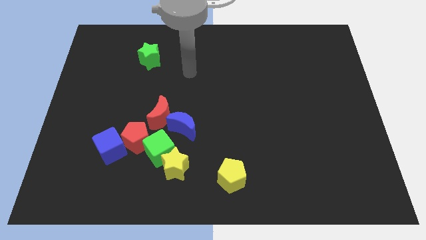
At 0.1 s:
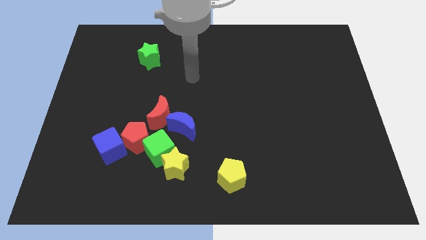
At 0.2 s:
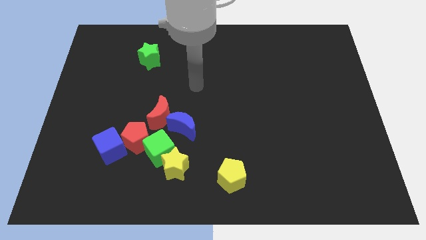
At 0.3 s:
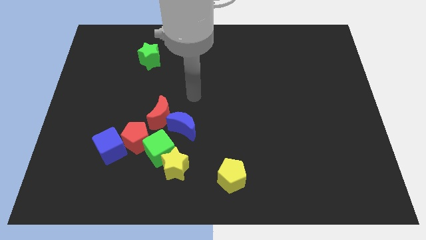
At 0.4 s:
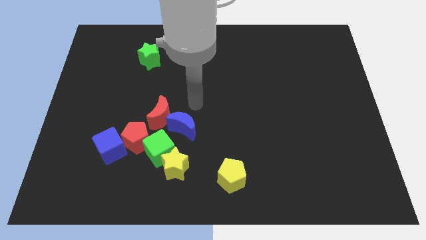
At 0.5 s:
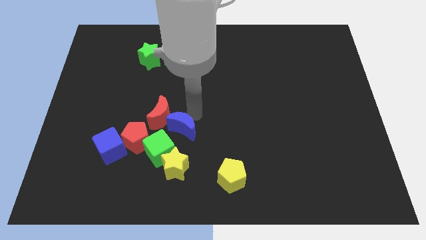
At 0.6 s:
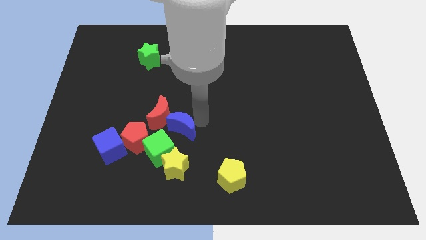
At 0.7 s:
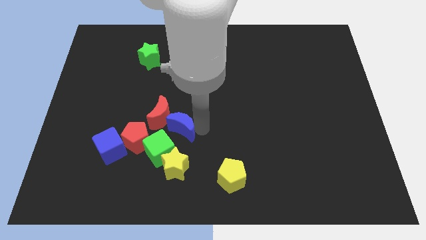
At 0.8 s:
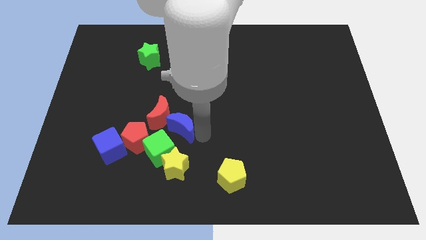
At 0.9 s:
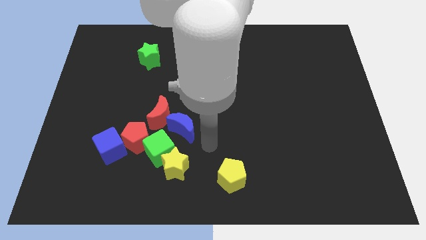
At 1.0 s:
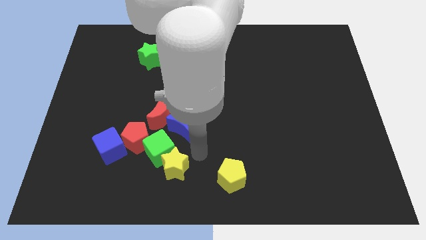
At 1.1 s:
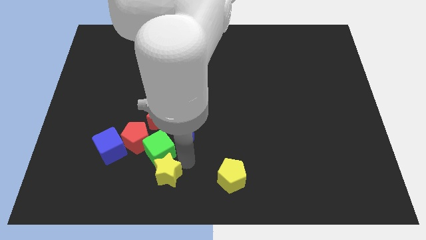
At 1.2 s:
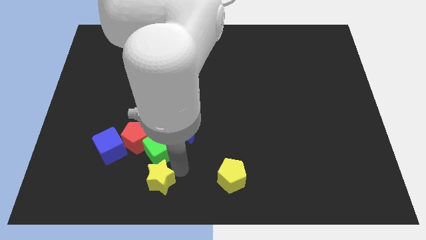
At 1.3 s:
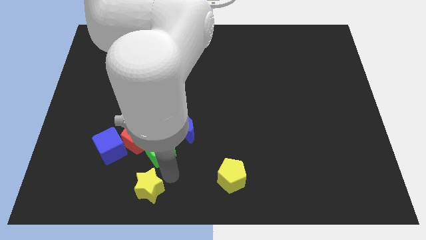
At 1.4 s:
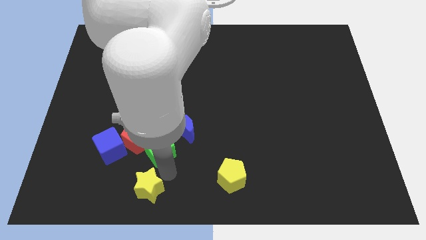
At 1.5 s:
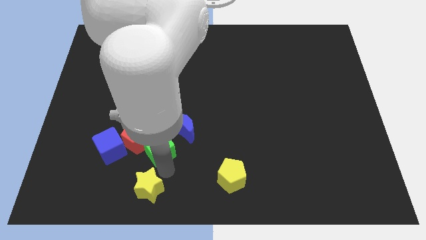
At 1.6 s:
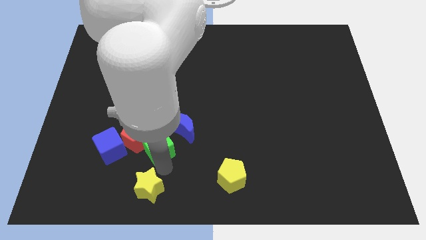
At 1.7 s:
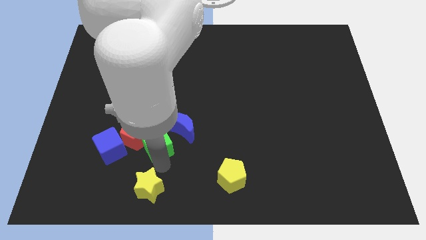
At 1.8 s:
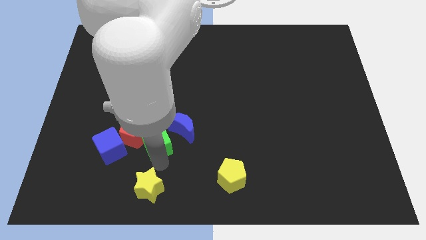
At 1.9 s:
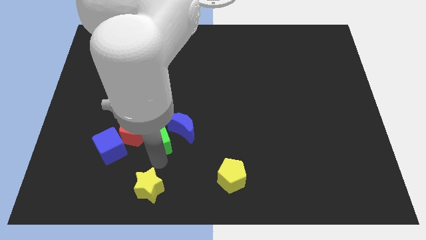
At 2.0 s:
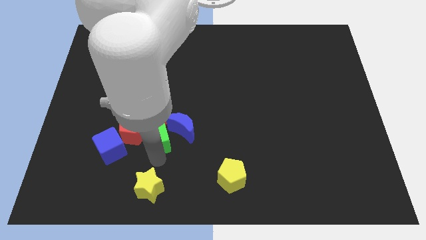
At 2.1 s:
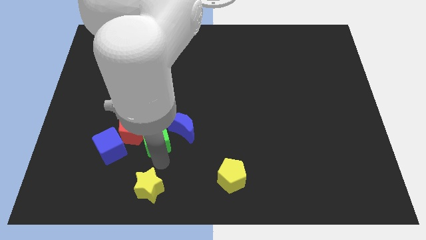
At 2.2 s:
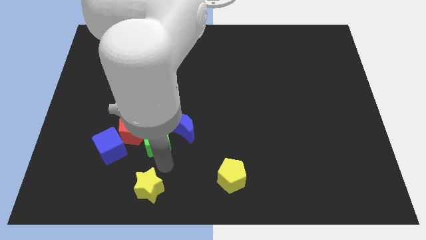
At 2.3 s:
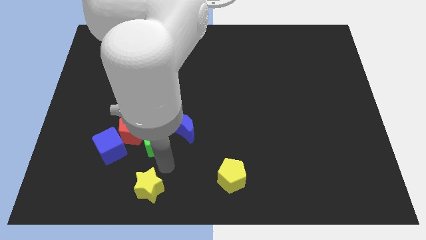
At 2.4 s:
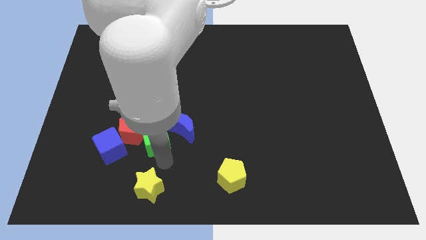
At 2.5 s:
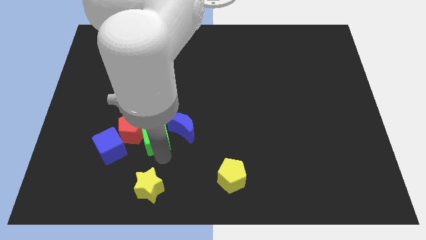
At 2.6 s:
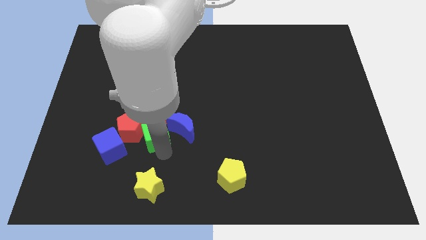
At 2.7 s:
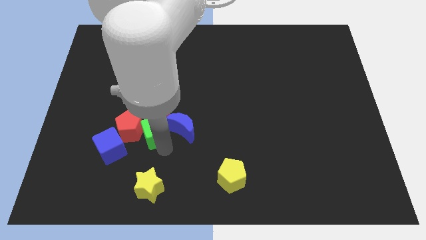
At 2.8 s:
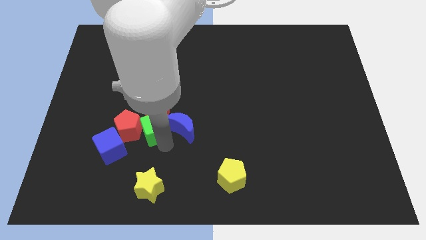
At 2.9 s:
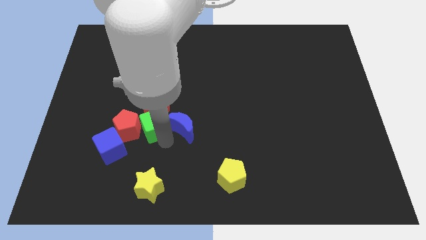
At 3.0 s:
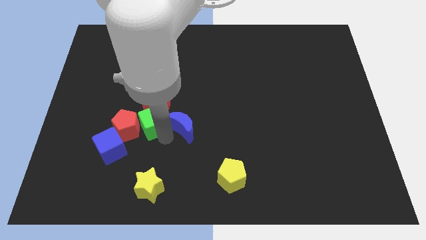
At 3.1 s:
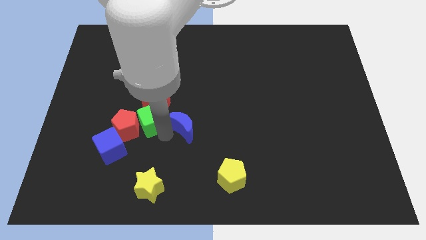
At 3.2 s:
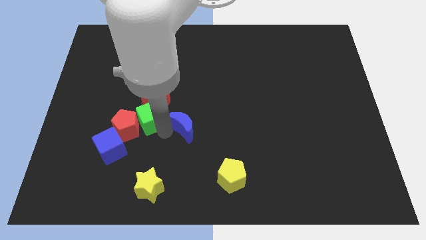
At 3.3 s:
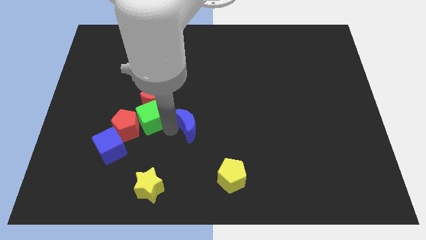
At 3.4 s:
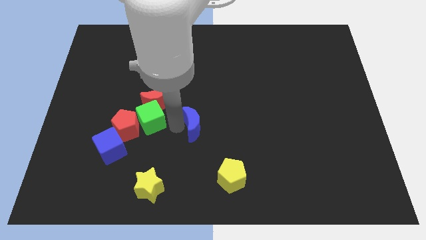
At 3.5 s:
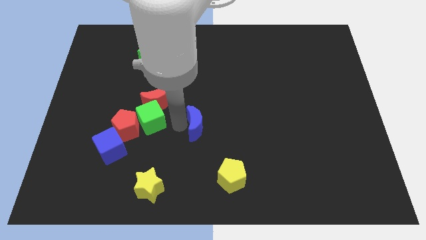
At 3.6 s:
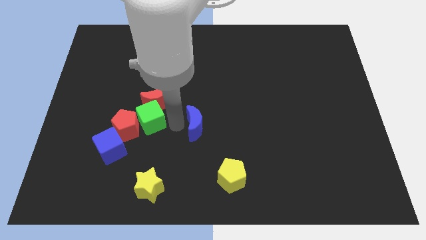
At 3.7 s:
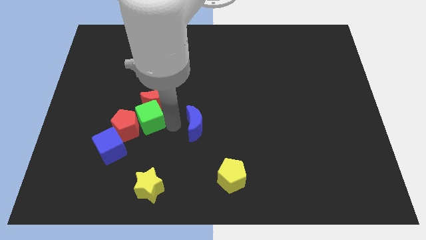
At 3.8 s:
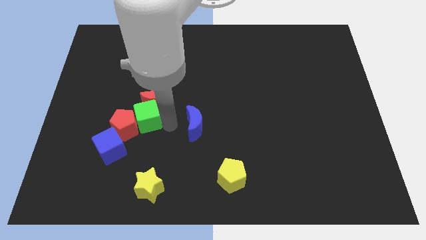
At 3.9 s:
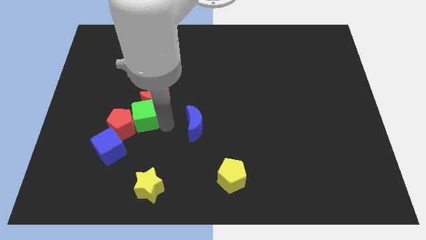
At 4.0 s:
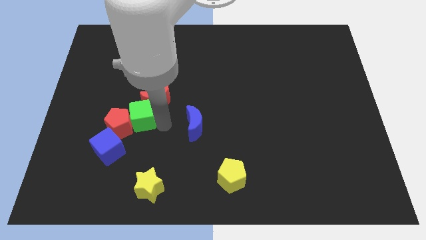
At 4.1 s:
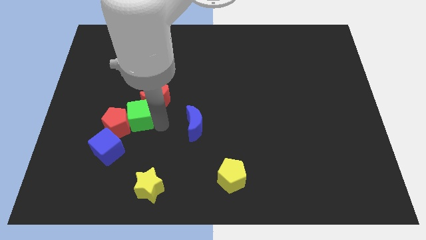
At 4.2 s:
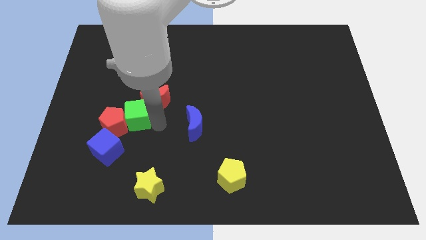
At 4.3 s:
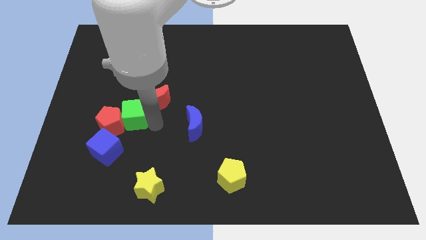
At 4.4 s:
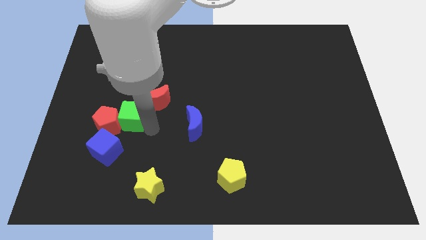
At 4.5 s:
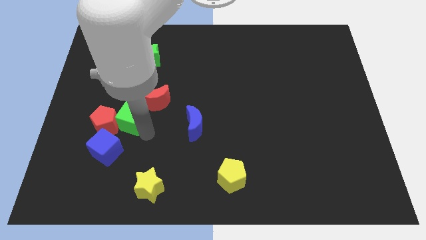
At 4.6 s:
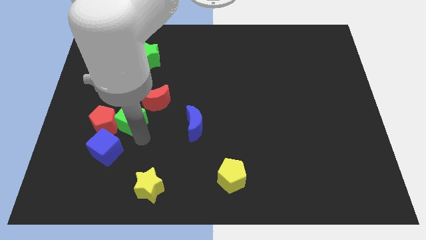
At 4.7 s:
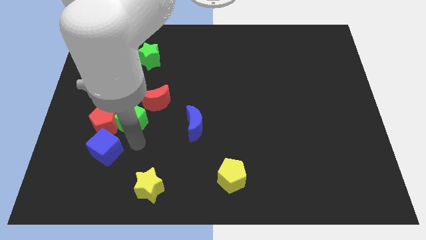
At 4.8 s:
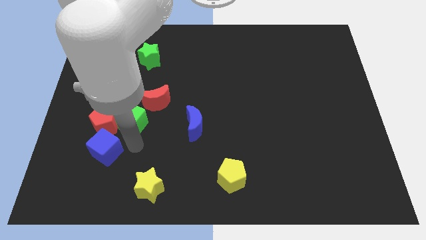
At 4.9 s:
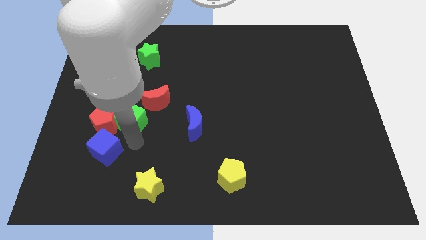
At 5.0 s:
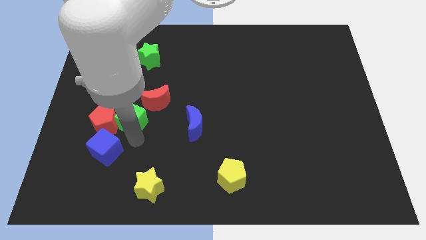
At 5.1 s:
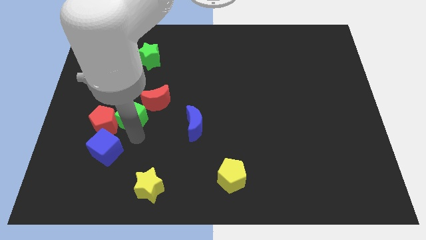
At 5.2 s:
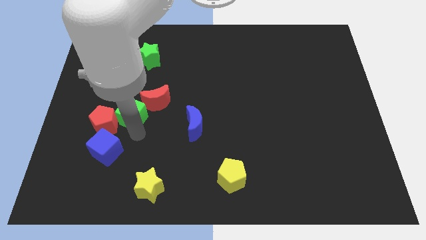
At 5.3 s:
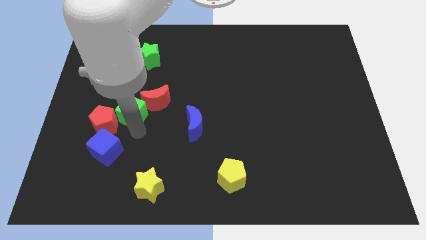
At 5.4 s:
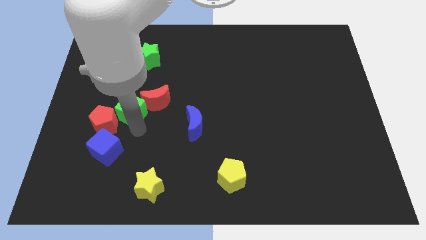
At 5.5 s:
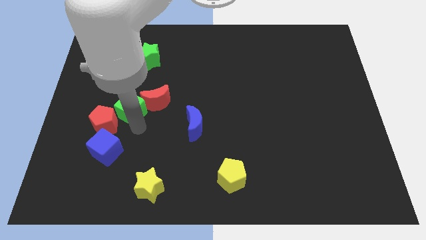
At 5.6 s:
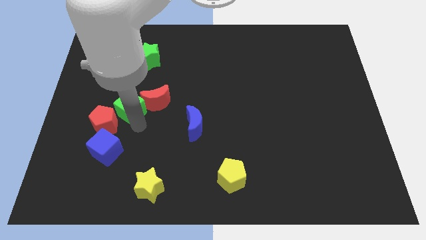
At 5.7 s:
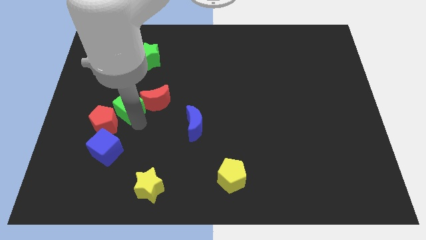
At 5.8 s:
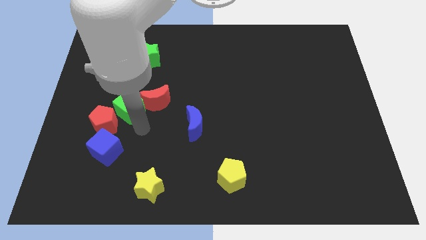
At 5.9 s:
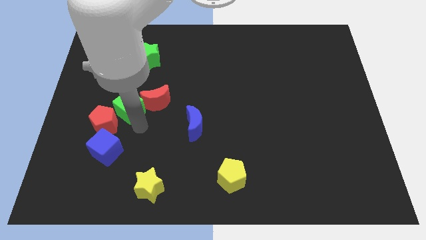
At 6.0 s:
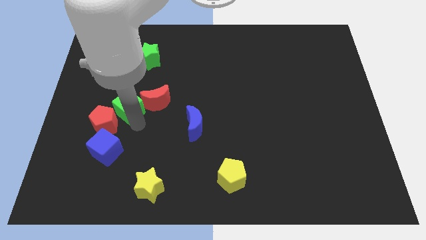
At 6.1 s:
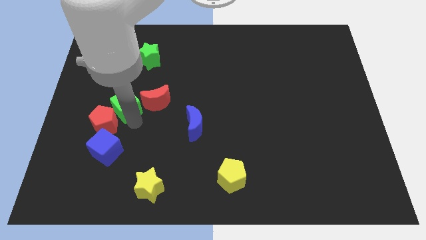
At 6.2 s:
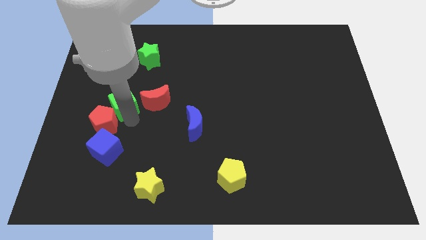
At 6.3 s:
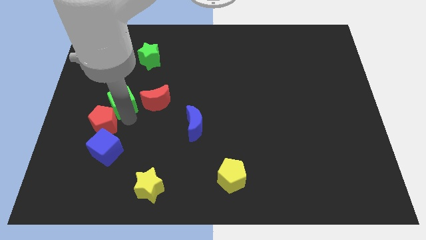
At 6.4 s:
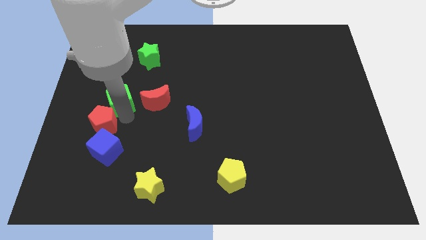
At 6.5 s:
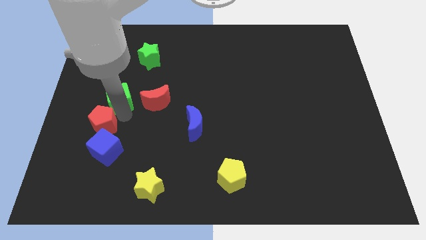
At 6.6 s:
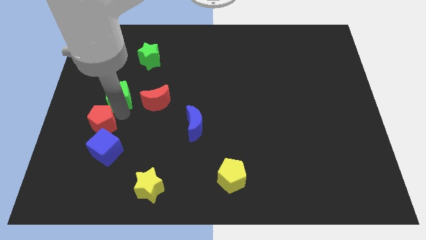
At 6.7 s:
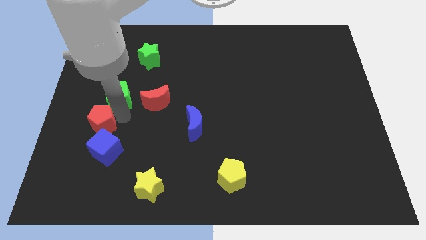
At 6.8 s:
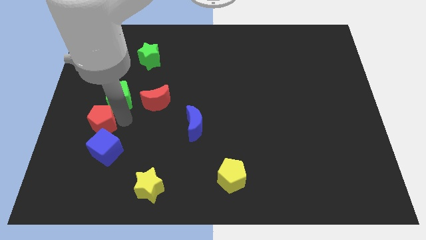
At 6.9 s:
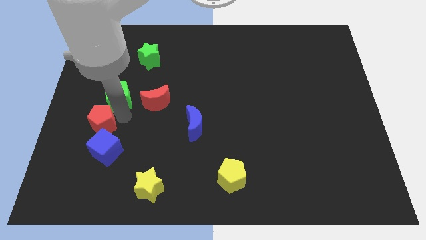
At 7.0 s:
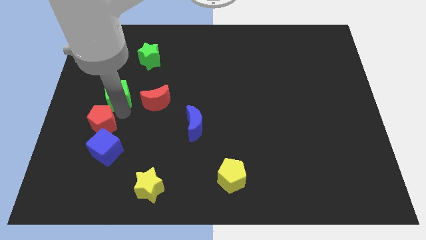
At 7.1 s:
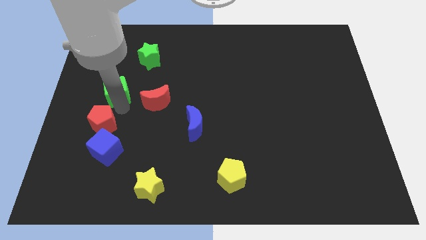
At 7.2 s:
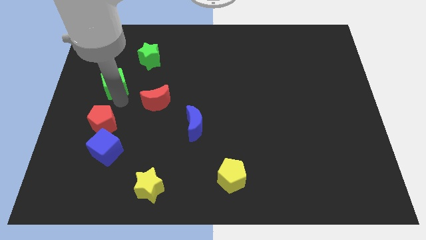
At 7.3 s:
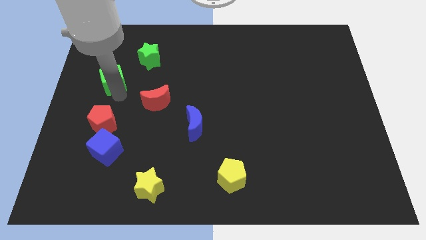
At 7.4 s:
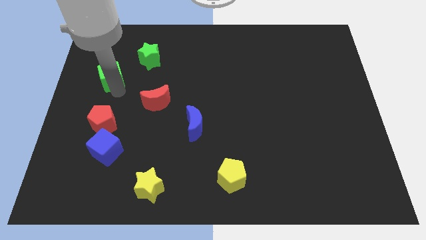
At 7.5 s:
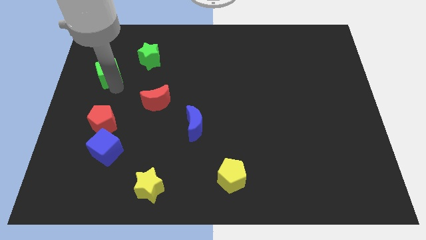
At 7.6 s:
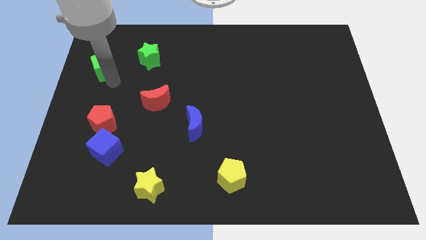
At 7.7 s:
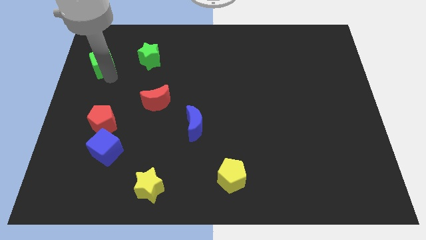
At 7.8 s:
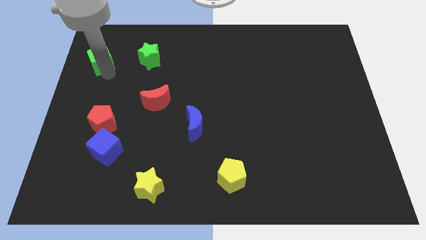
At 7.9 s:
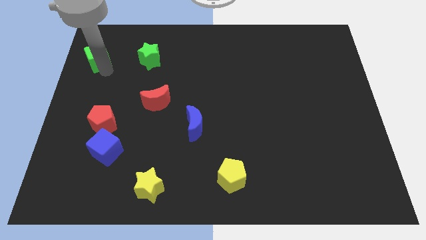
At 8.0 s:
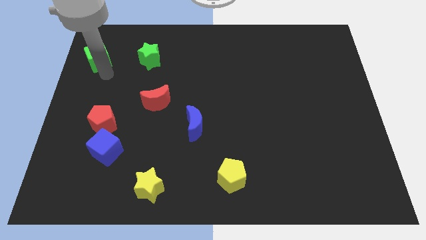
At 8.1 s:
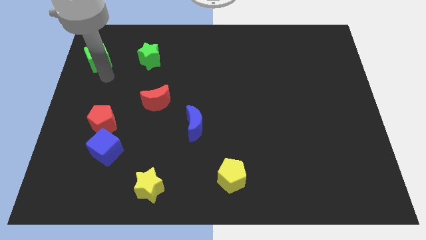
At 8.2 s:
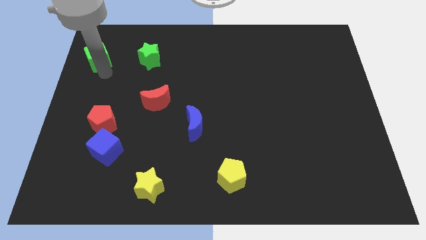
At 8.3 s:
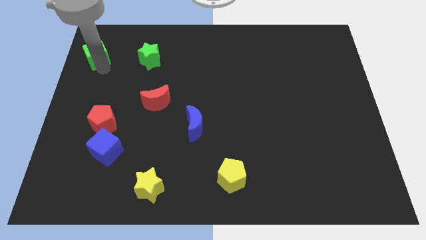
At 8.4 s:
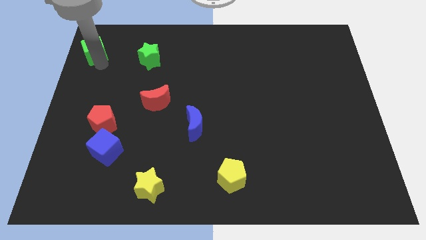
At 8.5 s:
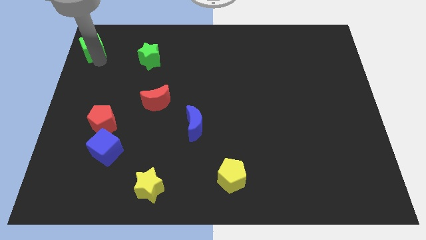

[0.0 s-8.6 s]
put the green cube to the upper left corner
